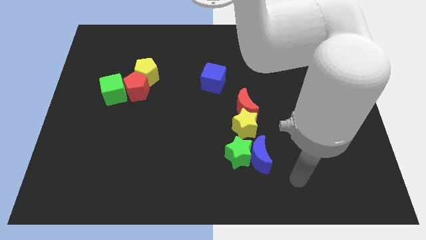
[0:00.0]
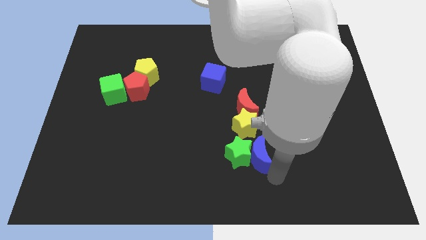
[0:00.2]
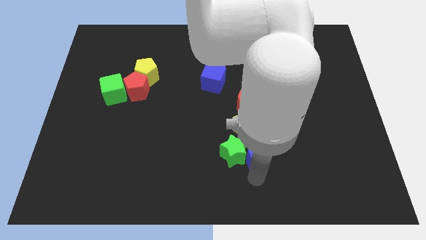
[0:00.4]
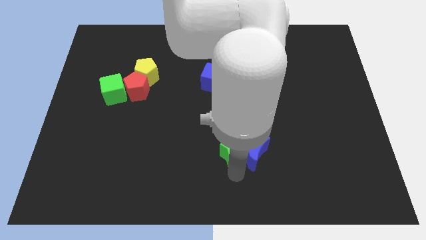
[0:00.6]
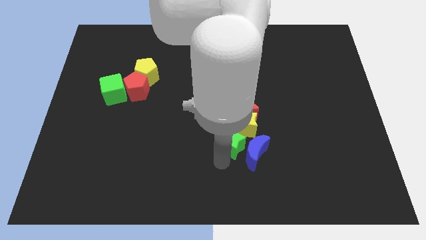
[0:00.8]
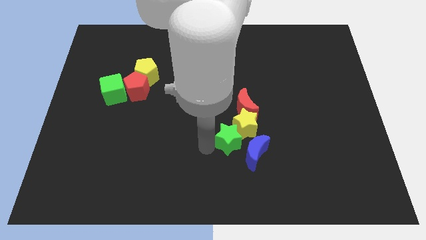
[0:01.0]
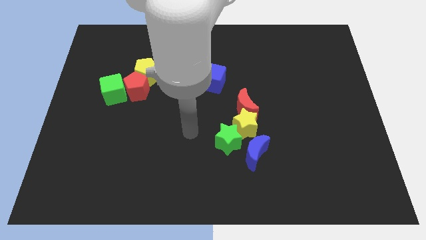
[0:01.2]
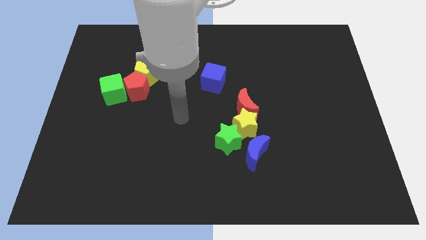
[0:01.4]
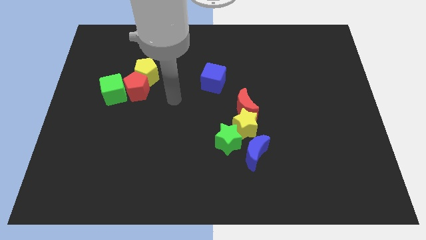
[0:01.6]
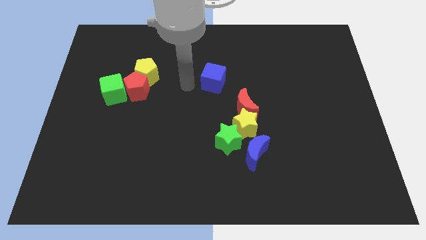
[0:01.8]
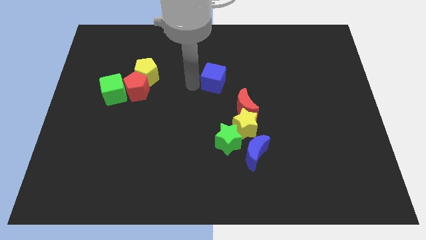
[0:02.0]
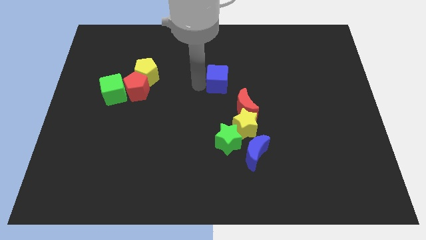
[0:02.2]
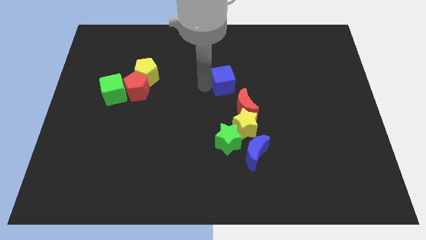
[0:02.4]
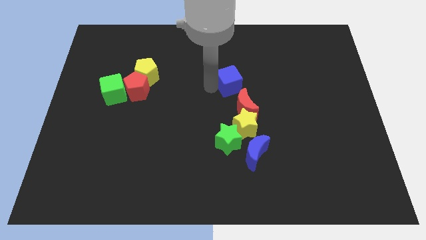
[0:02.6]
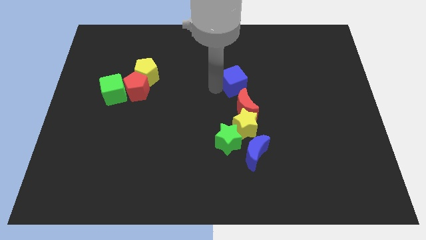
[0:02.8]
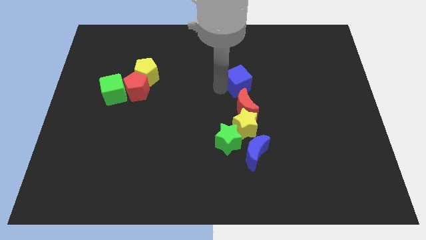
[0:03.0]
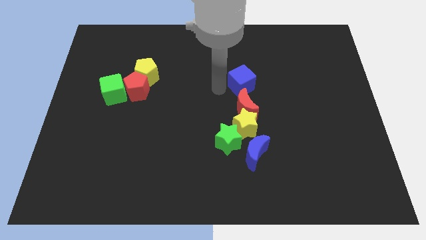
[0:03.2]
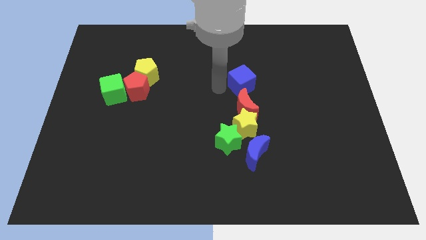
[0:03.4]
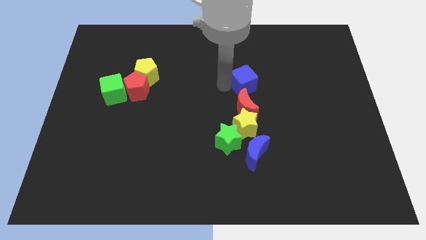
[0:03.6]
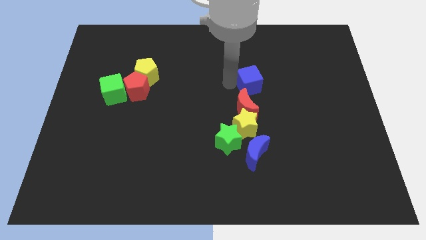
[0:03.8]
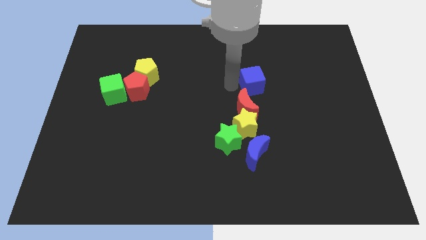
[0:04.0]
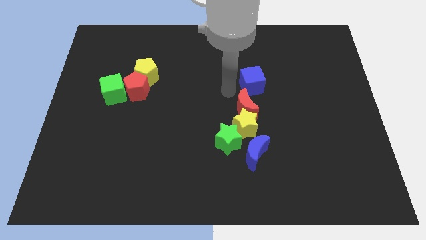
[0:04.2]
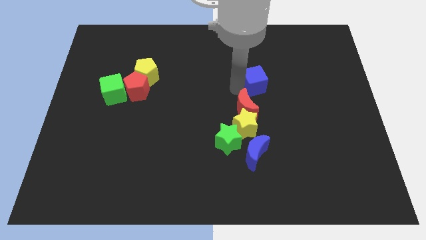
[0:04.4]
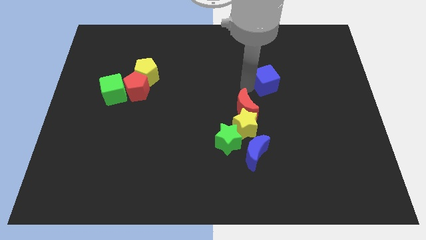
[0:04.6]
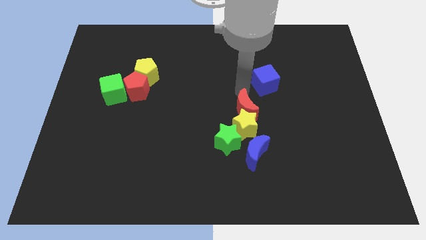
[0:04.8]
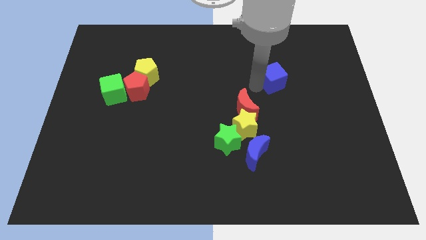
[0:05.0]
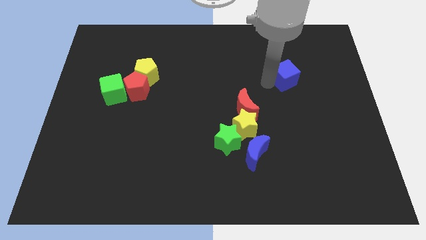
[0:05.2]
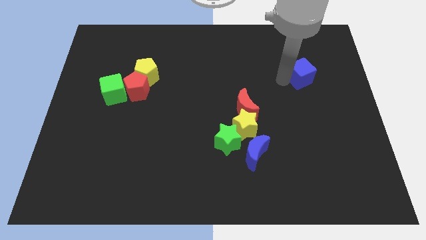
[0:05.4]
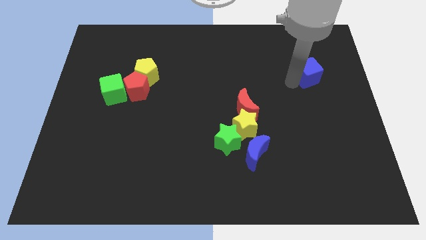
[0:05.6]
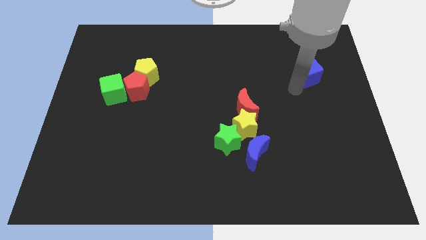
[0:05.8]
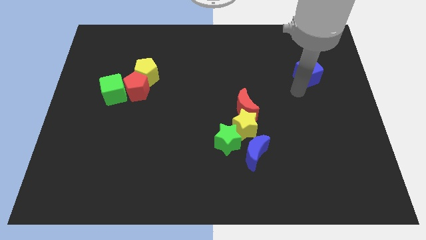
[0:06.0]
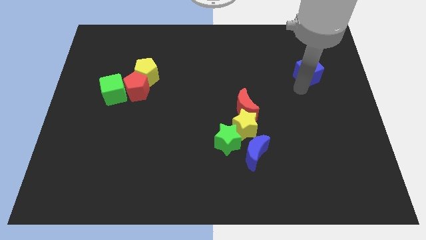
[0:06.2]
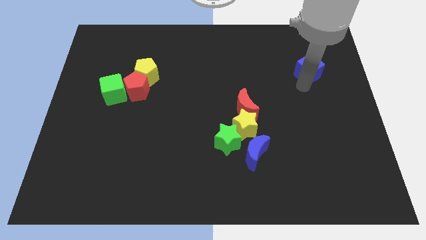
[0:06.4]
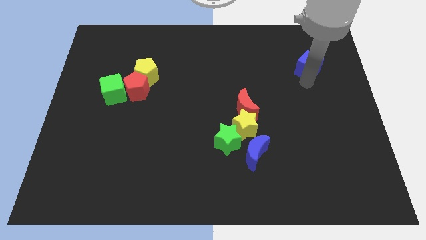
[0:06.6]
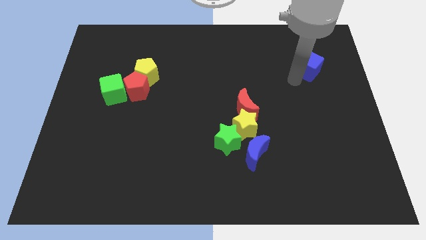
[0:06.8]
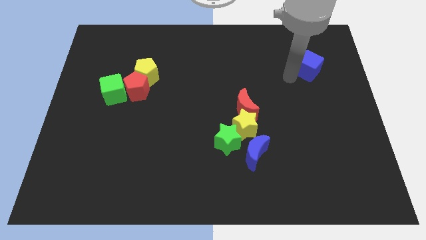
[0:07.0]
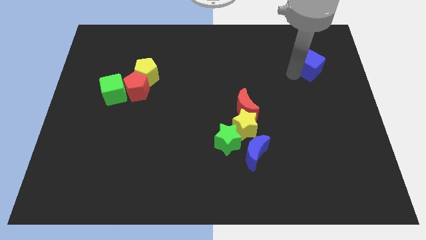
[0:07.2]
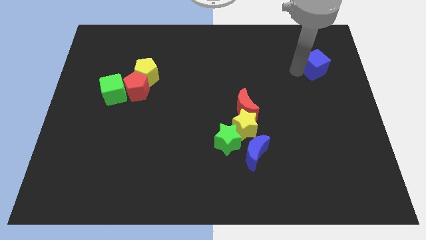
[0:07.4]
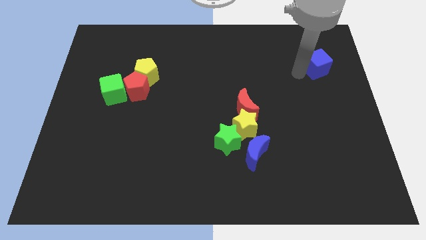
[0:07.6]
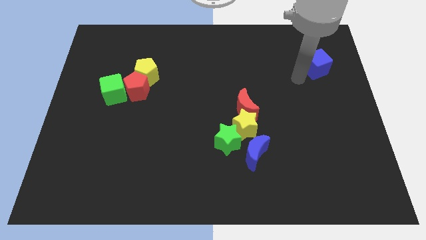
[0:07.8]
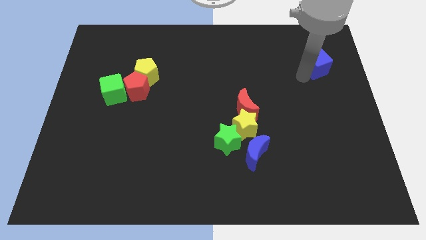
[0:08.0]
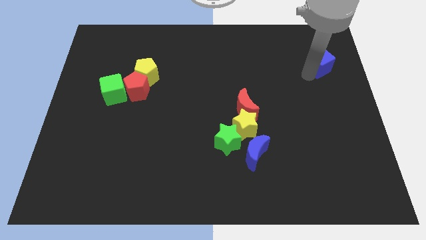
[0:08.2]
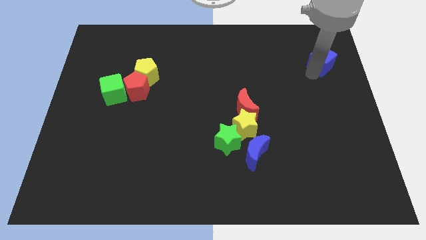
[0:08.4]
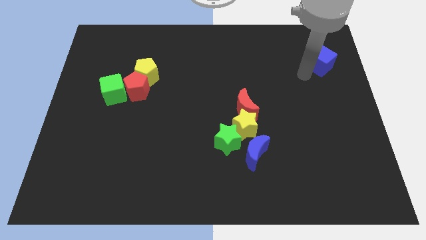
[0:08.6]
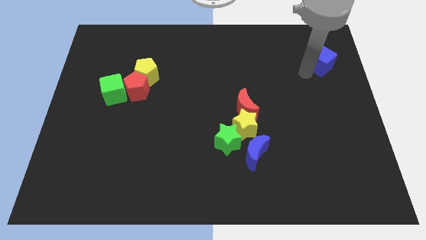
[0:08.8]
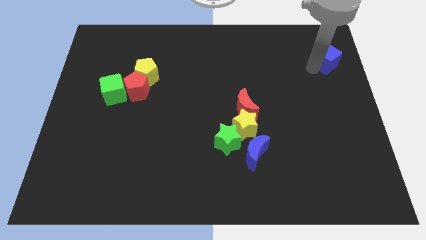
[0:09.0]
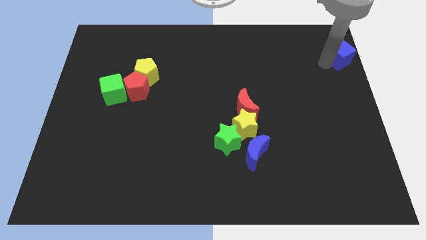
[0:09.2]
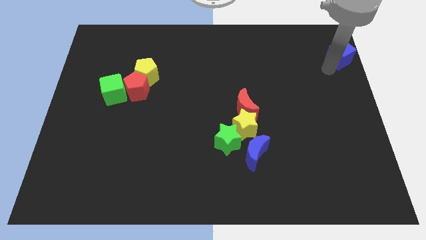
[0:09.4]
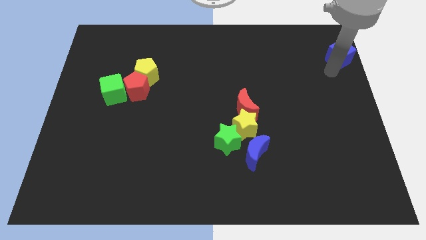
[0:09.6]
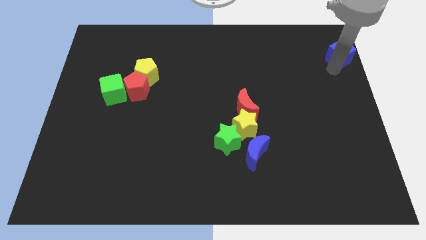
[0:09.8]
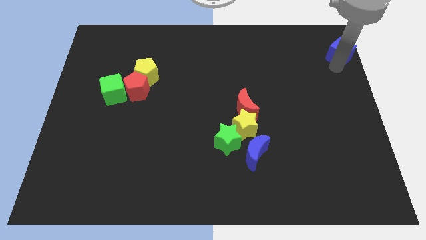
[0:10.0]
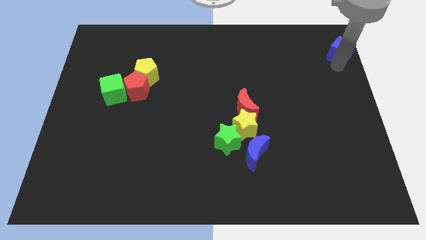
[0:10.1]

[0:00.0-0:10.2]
slide the blue cube to the top right corner
